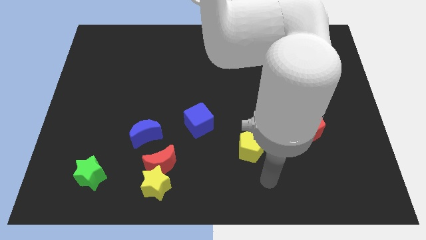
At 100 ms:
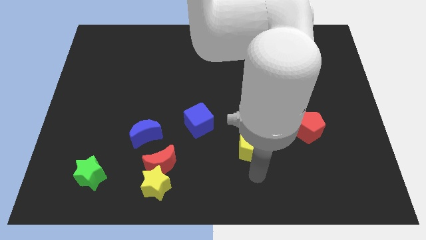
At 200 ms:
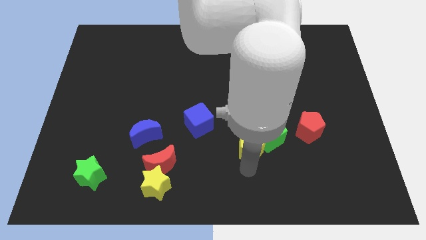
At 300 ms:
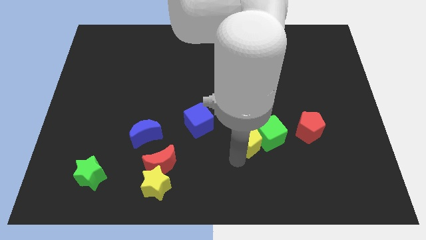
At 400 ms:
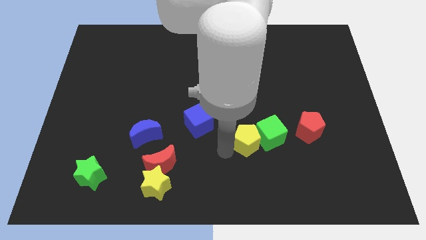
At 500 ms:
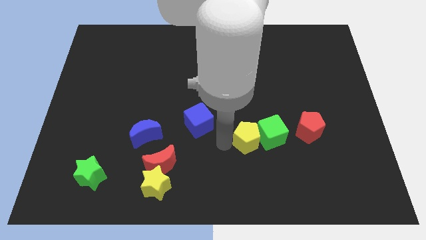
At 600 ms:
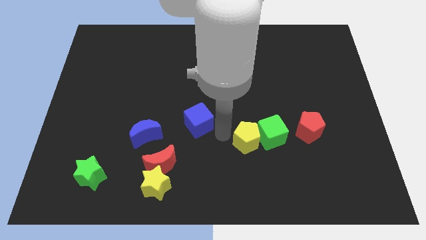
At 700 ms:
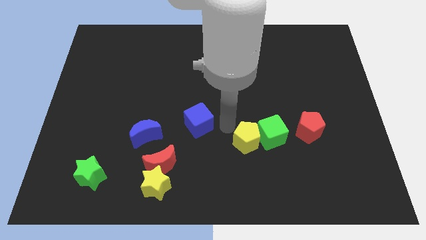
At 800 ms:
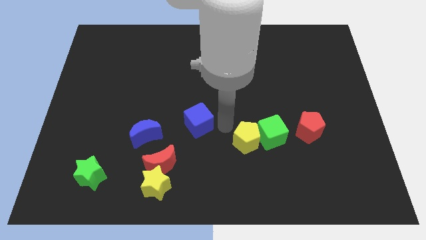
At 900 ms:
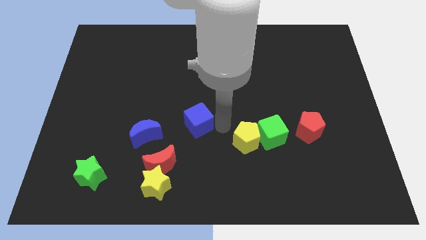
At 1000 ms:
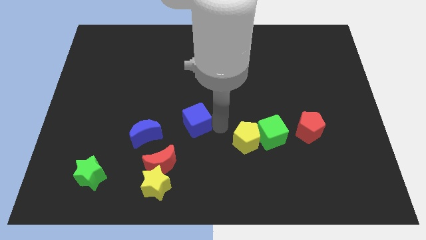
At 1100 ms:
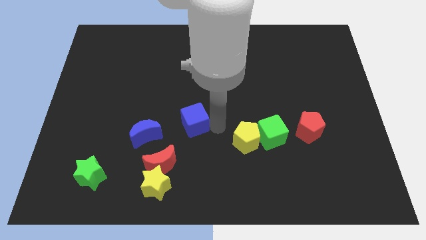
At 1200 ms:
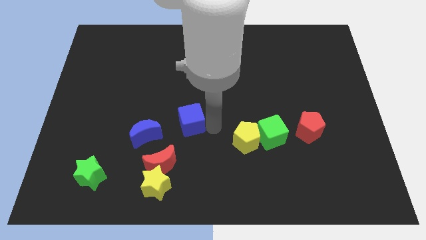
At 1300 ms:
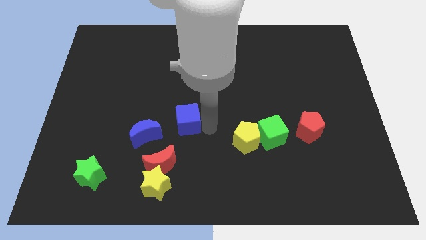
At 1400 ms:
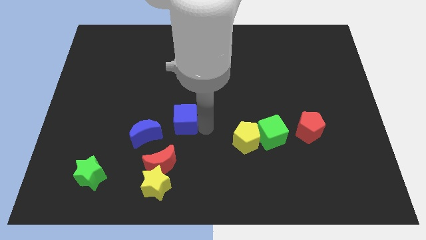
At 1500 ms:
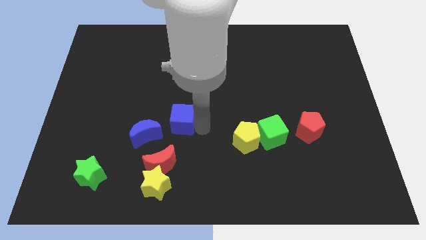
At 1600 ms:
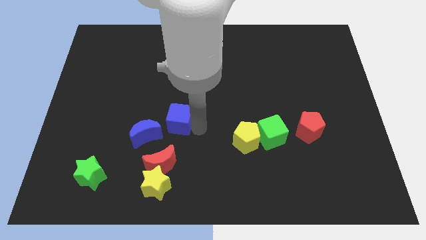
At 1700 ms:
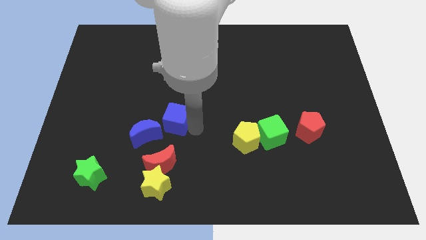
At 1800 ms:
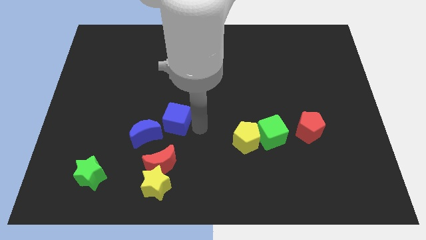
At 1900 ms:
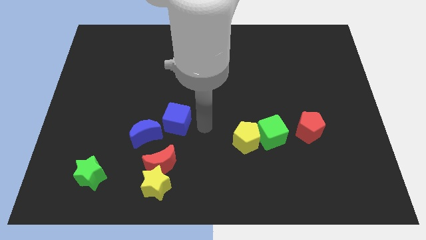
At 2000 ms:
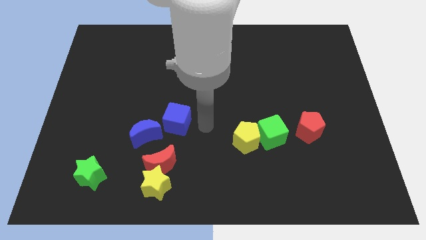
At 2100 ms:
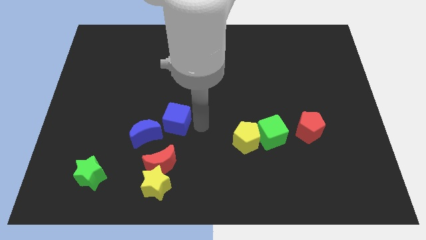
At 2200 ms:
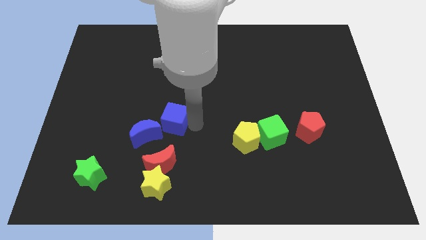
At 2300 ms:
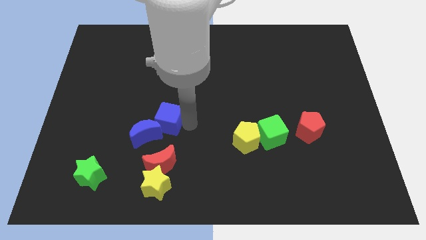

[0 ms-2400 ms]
move the blue cube to the left a little bit

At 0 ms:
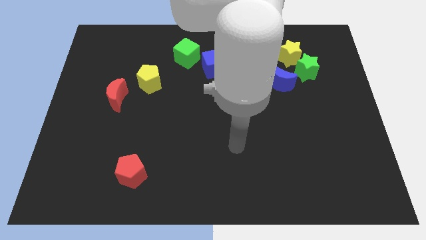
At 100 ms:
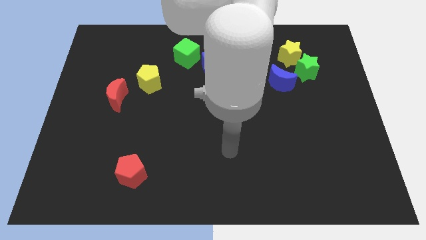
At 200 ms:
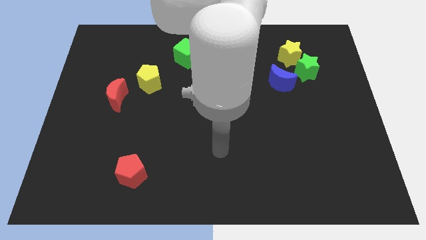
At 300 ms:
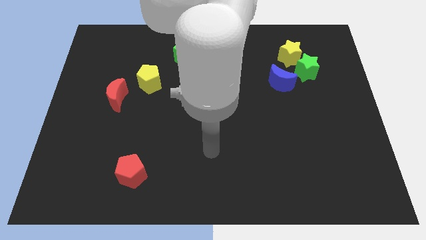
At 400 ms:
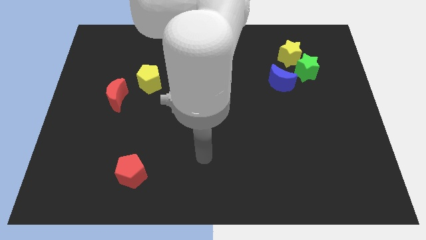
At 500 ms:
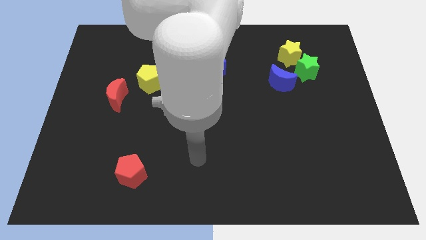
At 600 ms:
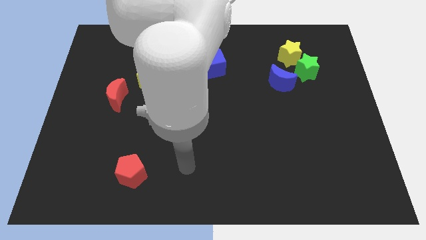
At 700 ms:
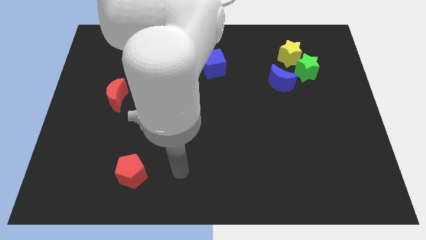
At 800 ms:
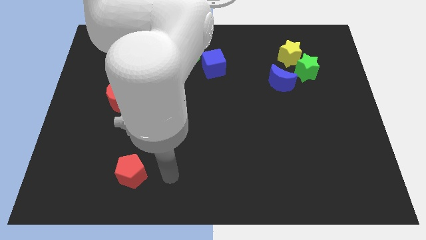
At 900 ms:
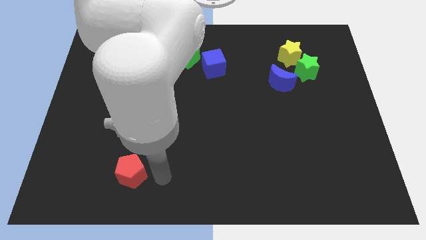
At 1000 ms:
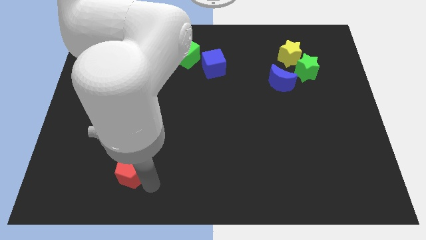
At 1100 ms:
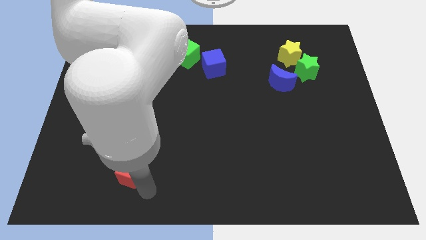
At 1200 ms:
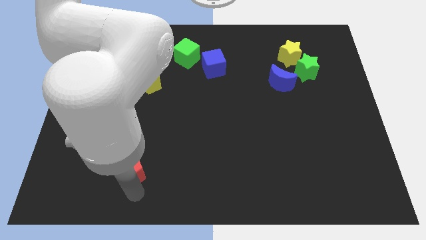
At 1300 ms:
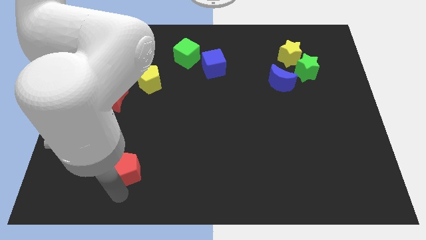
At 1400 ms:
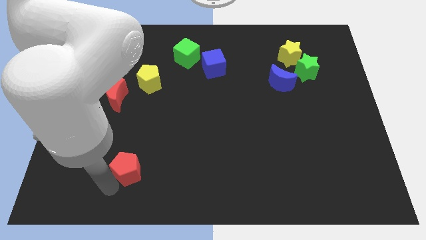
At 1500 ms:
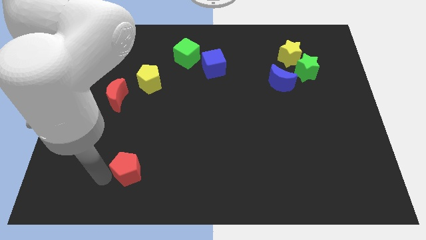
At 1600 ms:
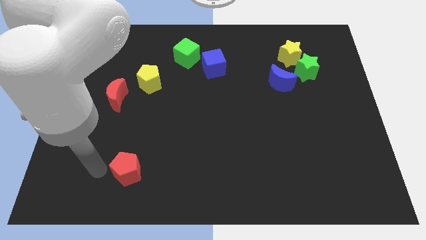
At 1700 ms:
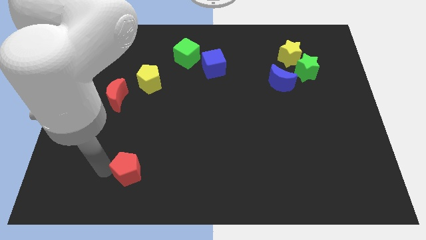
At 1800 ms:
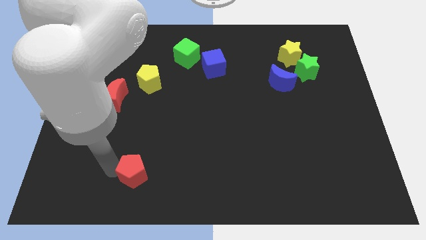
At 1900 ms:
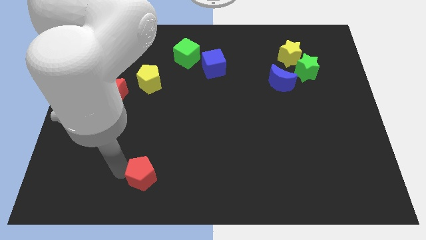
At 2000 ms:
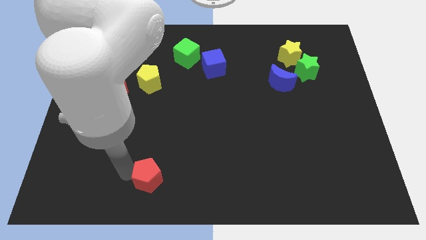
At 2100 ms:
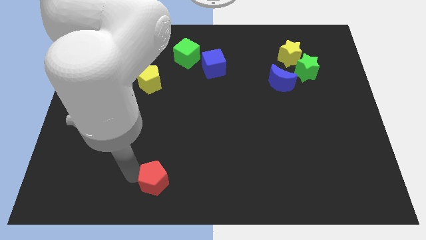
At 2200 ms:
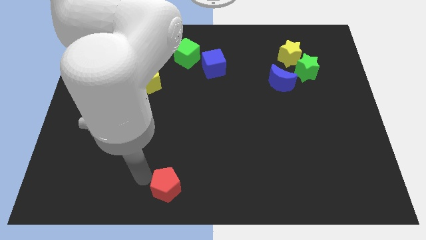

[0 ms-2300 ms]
slide the red pentagon right a little

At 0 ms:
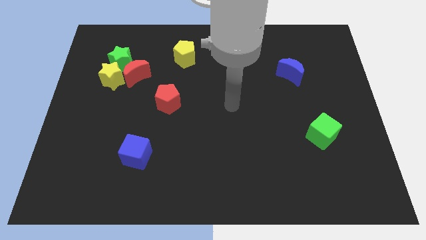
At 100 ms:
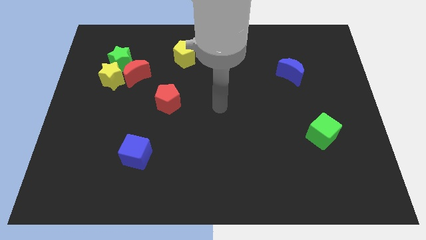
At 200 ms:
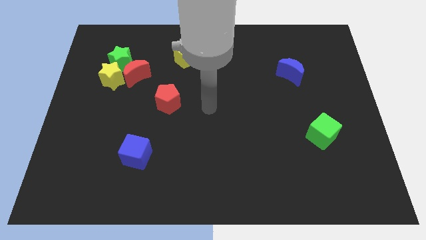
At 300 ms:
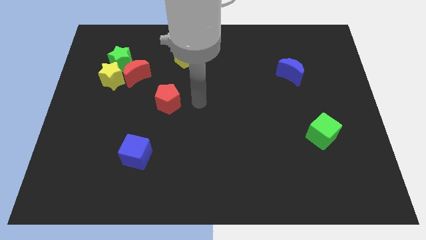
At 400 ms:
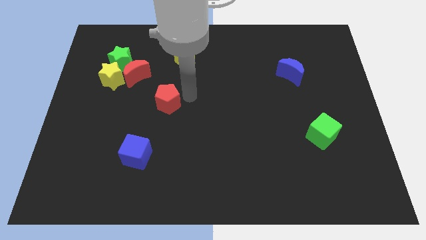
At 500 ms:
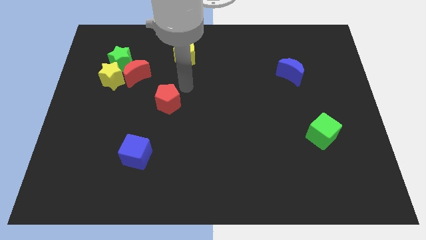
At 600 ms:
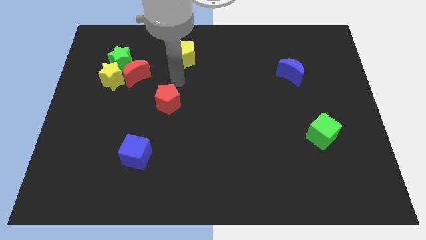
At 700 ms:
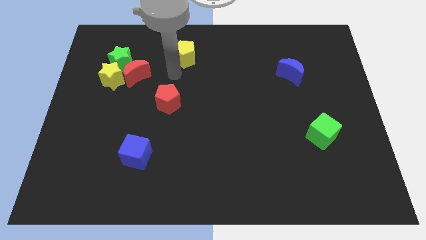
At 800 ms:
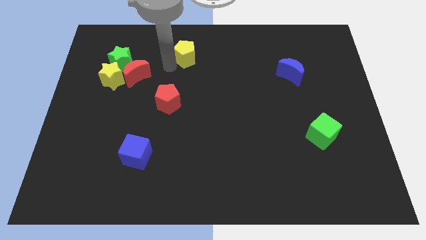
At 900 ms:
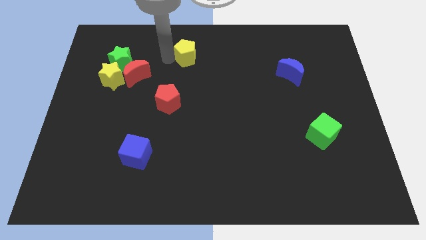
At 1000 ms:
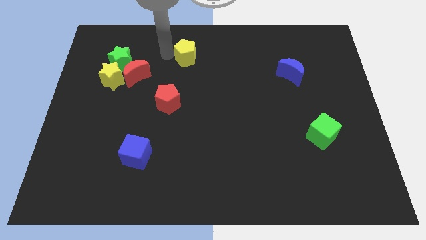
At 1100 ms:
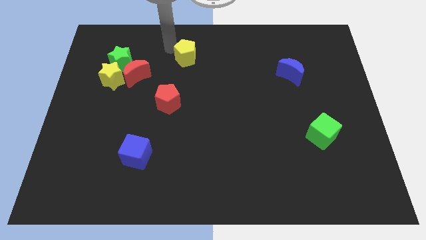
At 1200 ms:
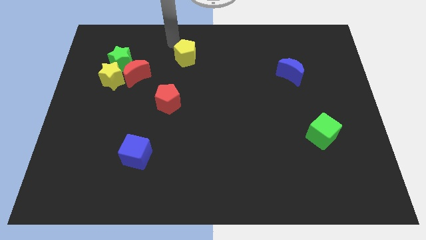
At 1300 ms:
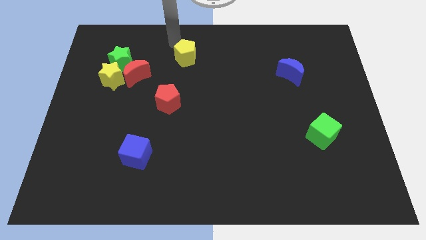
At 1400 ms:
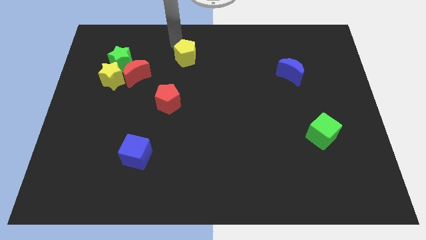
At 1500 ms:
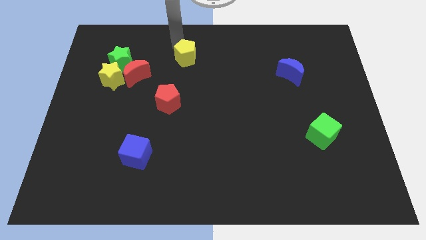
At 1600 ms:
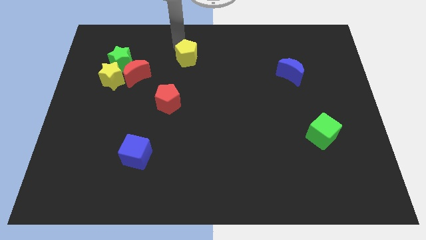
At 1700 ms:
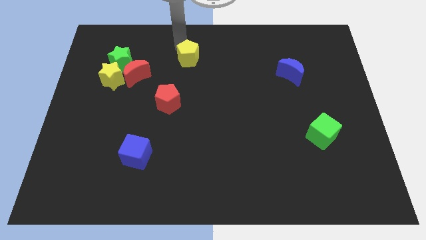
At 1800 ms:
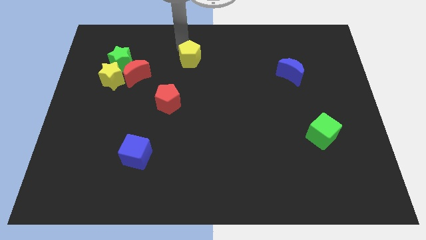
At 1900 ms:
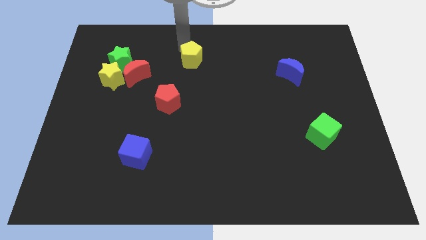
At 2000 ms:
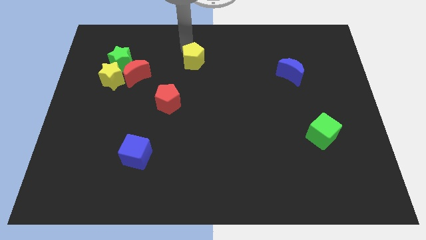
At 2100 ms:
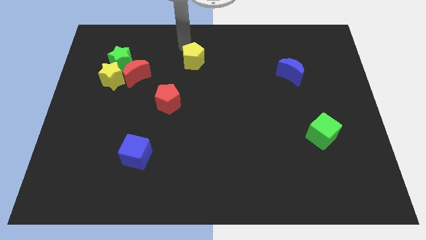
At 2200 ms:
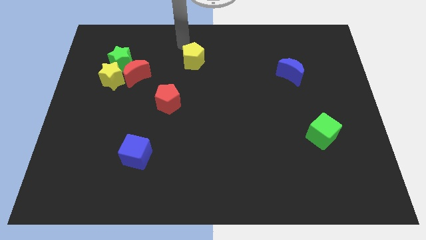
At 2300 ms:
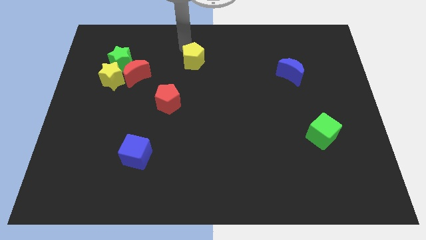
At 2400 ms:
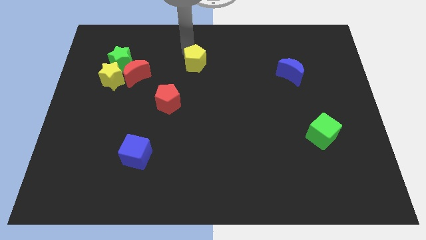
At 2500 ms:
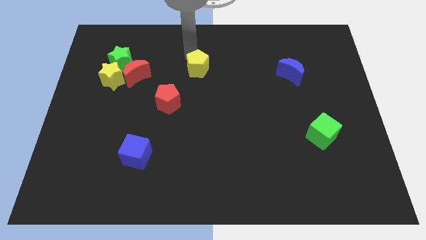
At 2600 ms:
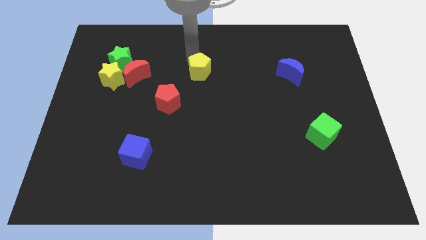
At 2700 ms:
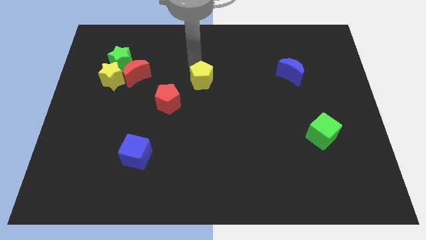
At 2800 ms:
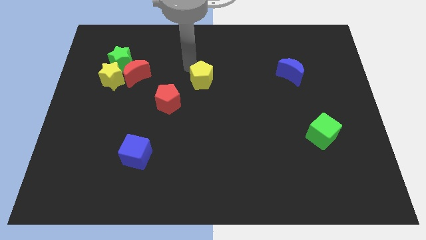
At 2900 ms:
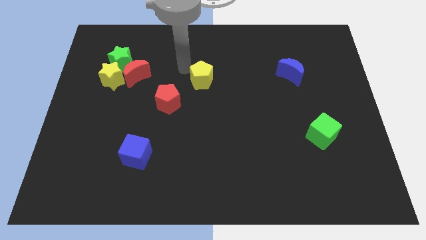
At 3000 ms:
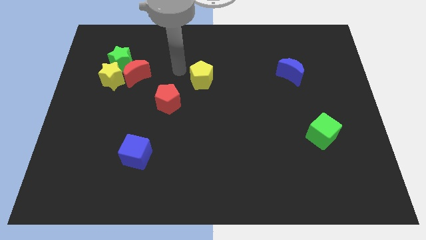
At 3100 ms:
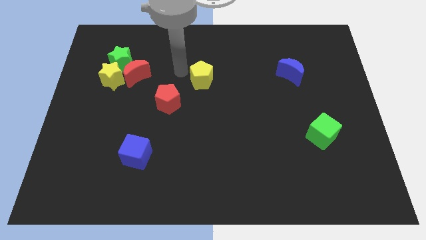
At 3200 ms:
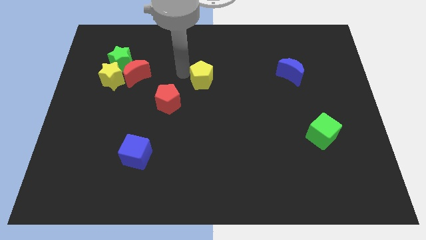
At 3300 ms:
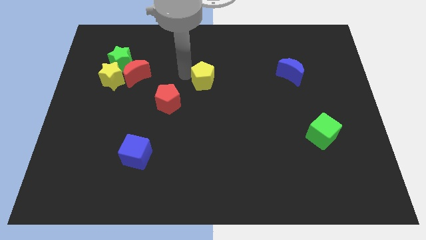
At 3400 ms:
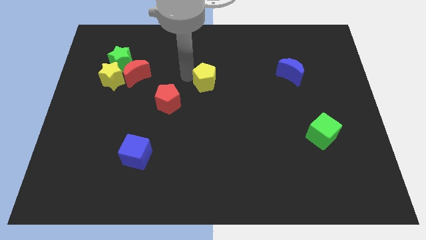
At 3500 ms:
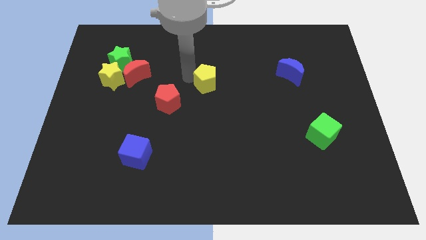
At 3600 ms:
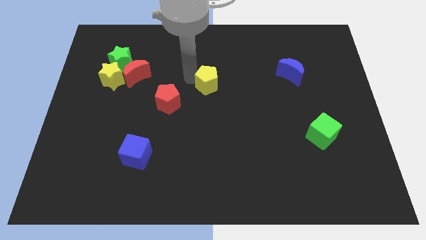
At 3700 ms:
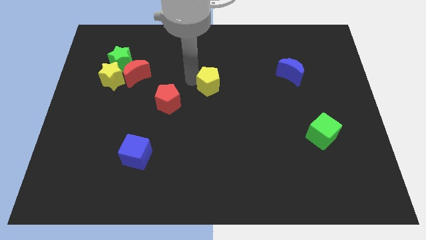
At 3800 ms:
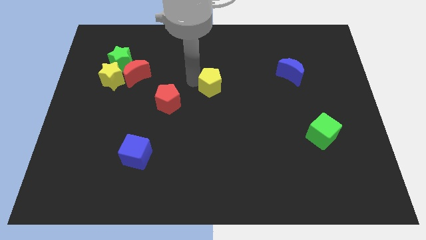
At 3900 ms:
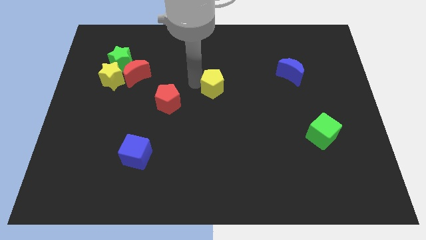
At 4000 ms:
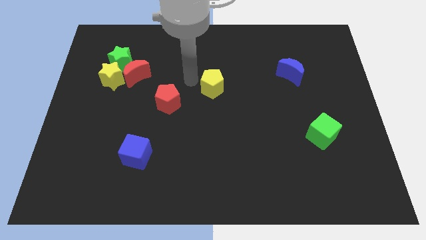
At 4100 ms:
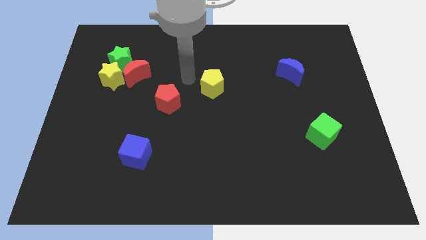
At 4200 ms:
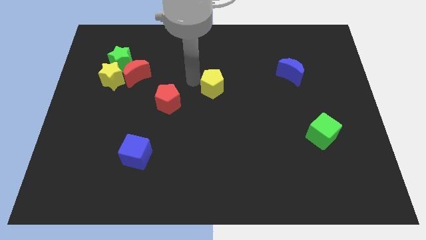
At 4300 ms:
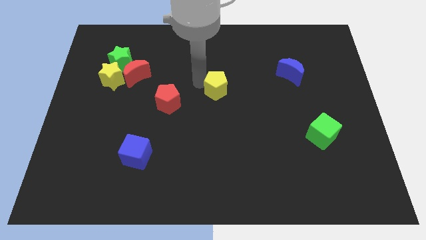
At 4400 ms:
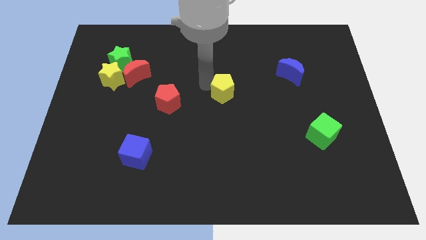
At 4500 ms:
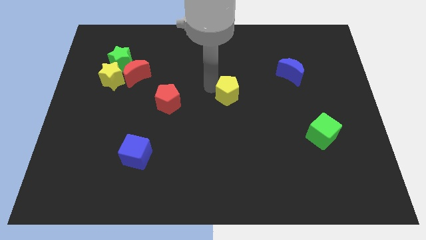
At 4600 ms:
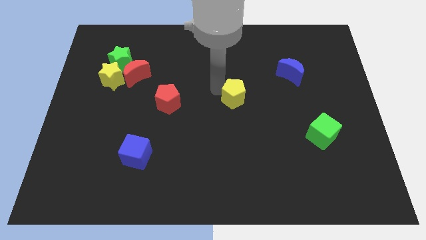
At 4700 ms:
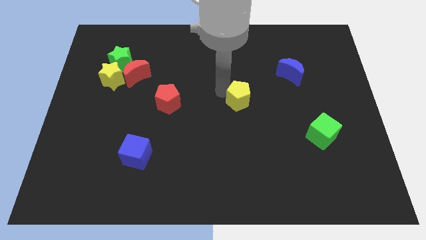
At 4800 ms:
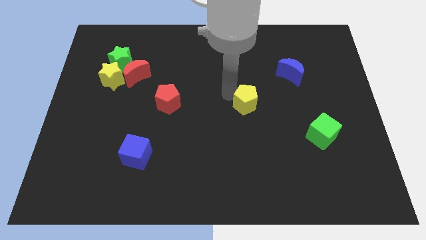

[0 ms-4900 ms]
move the yellow pentagon downwards and then right
